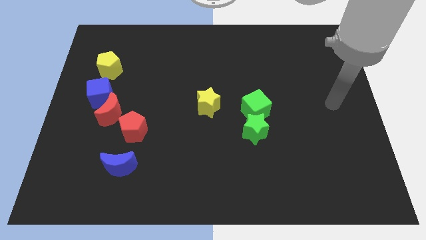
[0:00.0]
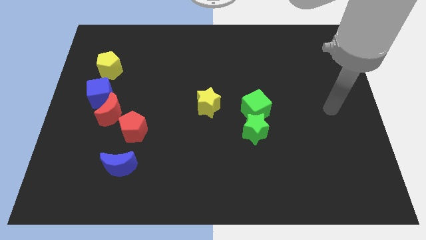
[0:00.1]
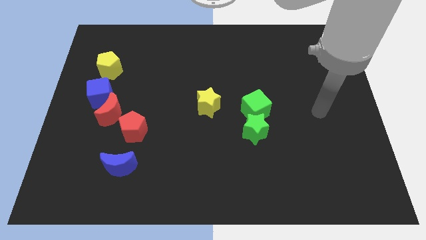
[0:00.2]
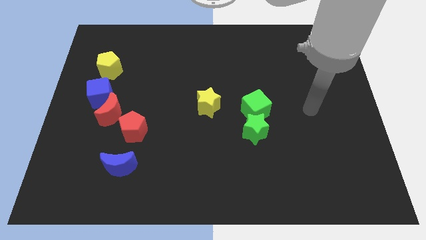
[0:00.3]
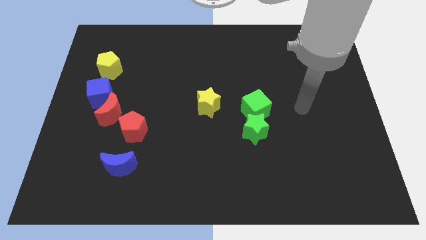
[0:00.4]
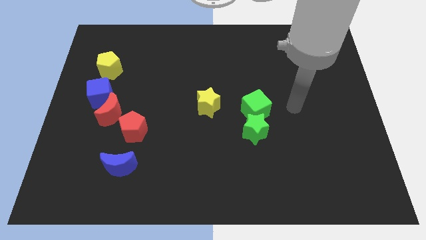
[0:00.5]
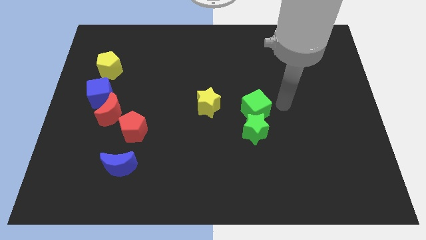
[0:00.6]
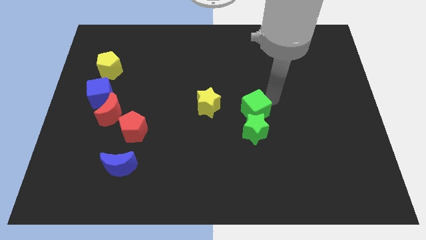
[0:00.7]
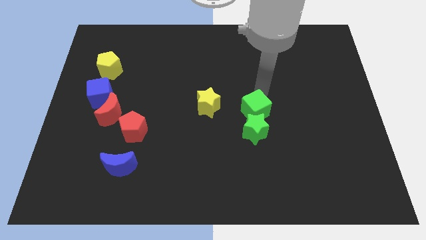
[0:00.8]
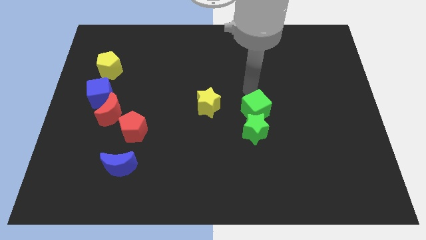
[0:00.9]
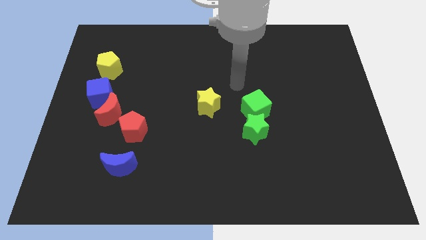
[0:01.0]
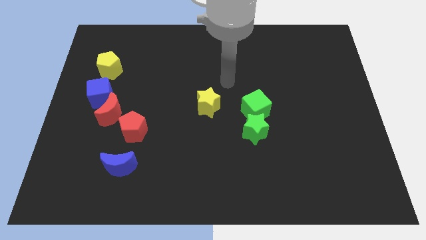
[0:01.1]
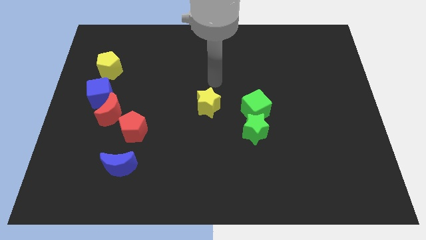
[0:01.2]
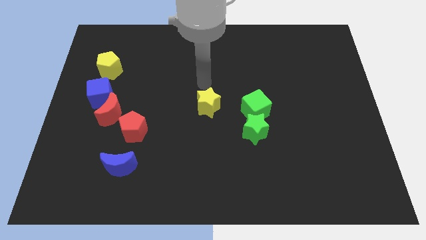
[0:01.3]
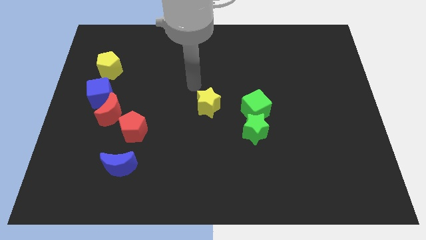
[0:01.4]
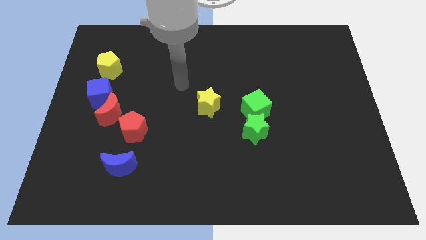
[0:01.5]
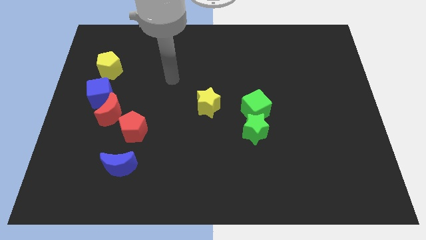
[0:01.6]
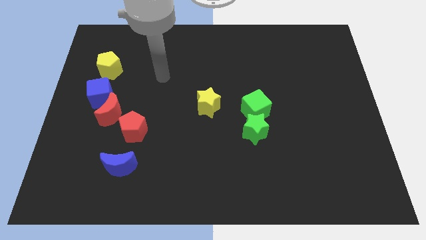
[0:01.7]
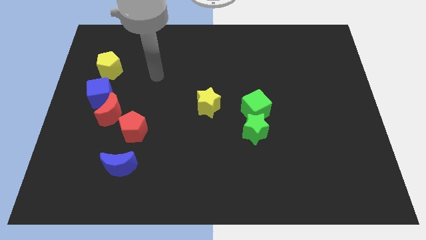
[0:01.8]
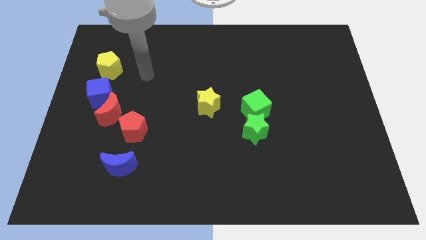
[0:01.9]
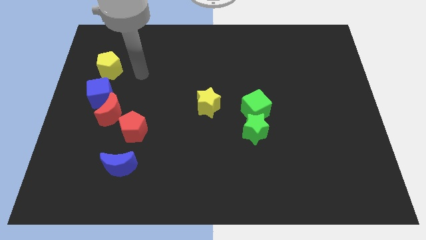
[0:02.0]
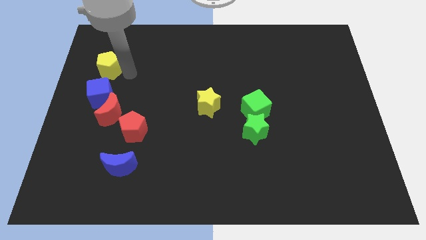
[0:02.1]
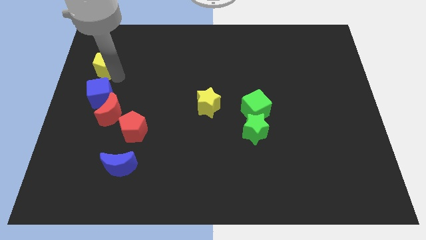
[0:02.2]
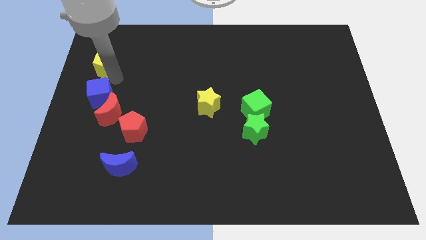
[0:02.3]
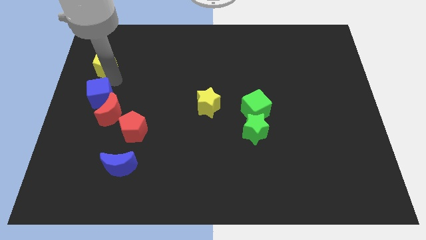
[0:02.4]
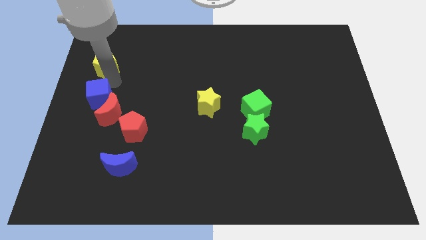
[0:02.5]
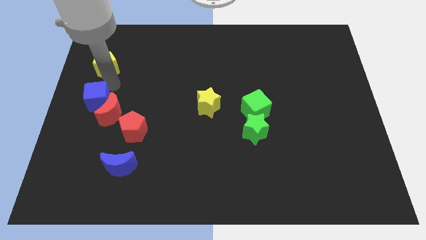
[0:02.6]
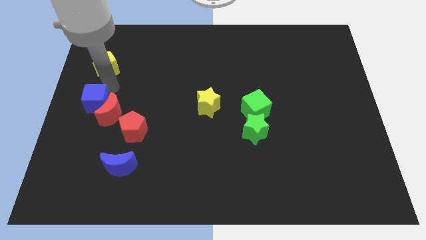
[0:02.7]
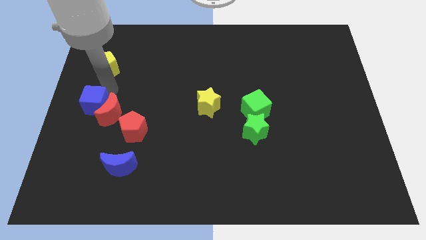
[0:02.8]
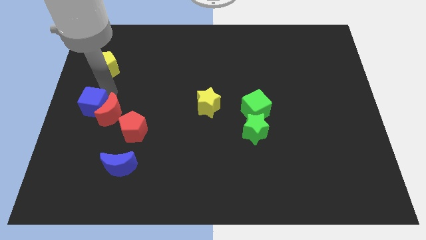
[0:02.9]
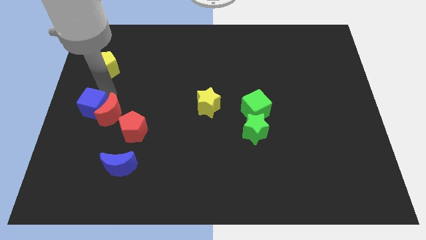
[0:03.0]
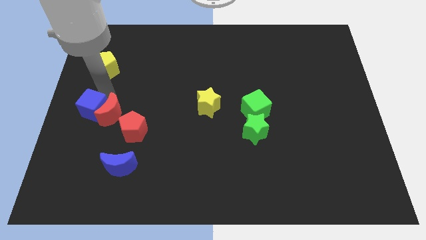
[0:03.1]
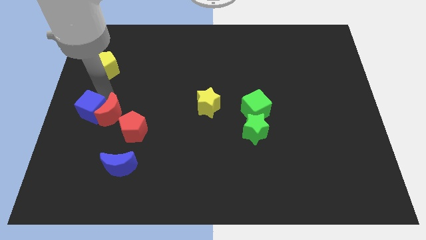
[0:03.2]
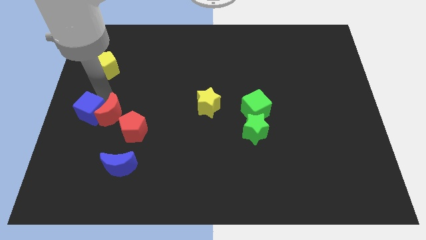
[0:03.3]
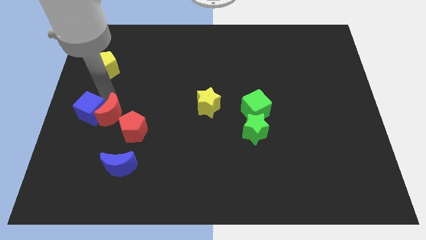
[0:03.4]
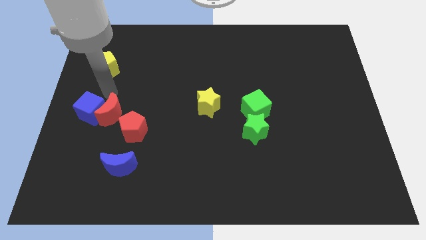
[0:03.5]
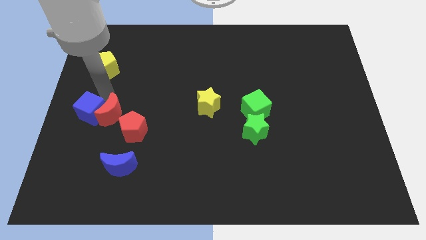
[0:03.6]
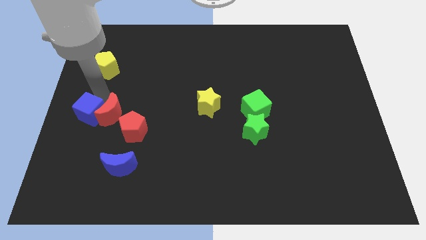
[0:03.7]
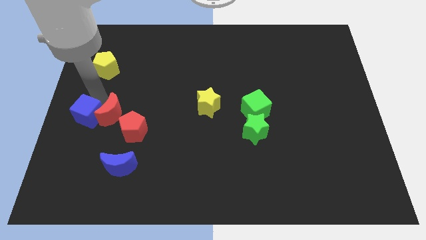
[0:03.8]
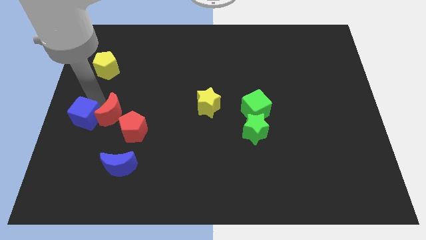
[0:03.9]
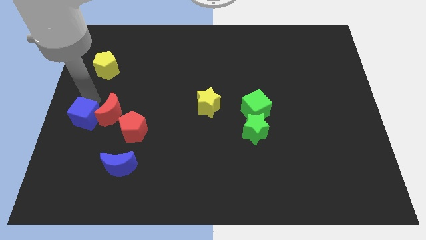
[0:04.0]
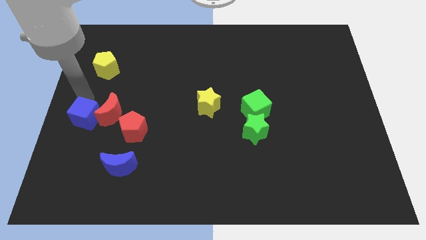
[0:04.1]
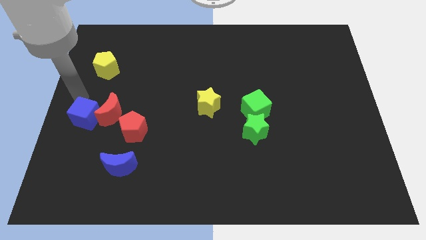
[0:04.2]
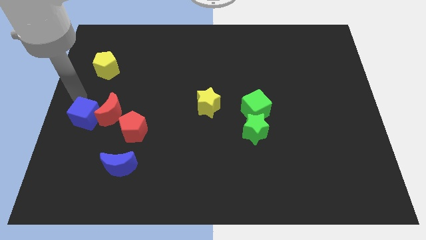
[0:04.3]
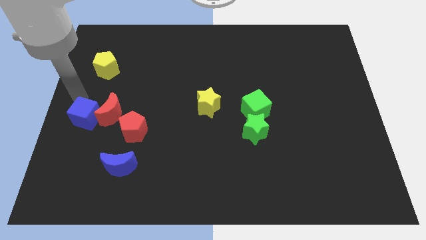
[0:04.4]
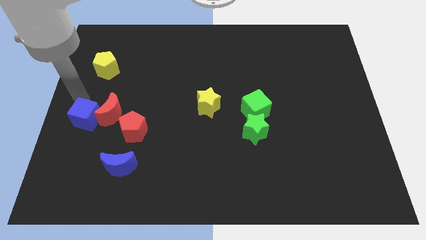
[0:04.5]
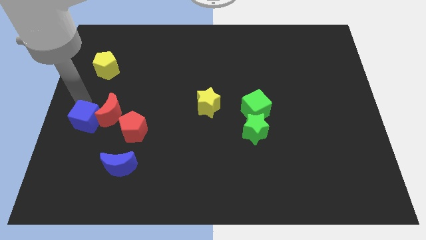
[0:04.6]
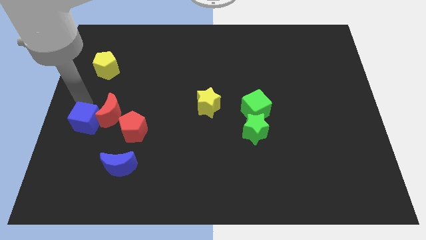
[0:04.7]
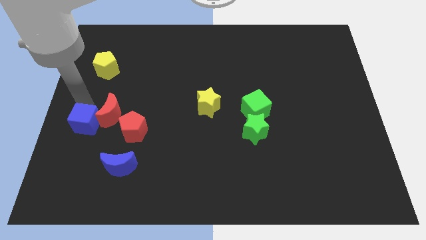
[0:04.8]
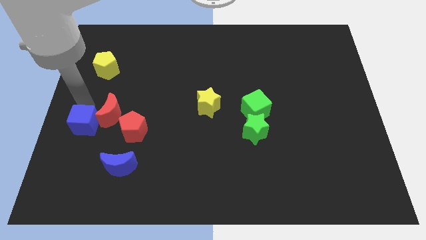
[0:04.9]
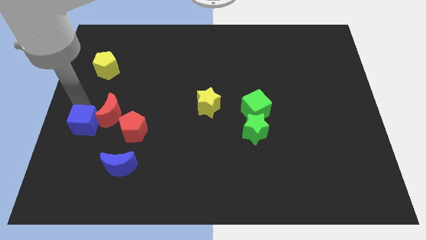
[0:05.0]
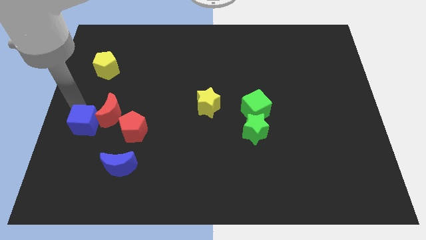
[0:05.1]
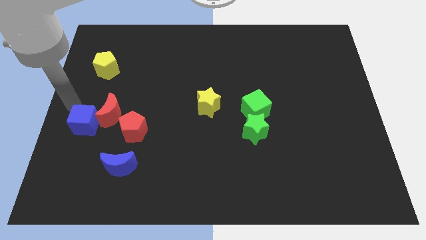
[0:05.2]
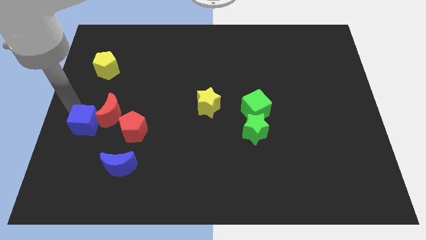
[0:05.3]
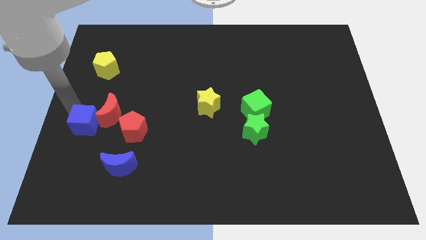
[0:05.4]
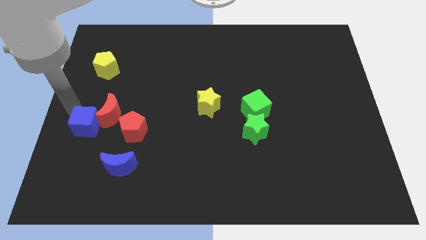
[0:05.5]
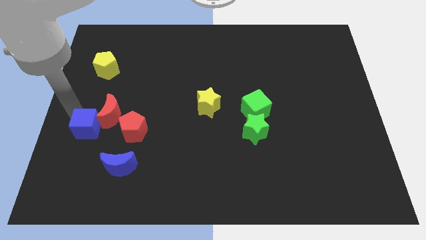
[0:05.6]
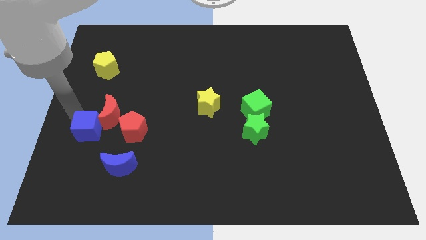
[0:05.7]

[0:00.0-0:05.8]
push the blue cube to the top left side of the blue moon

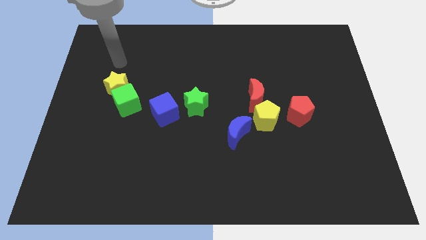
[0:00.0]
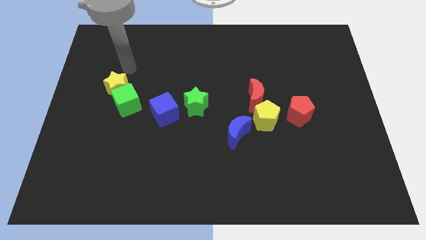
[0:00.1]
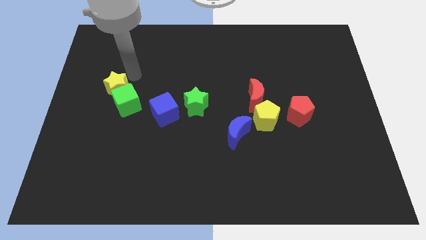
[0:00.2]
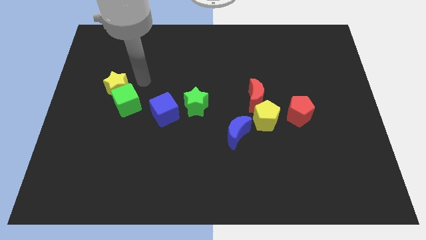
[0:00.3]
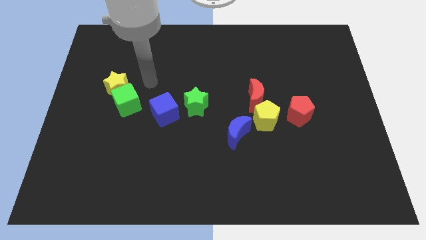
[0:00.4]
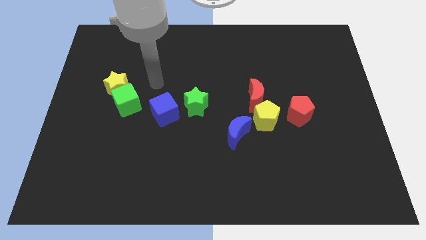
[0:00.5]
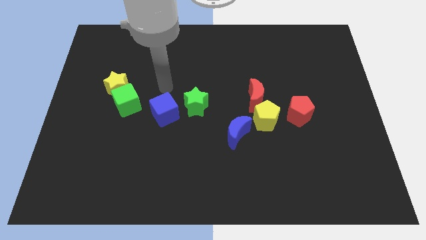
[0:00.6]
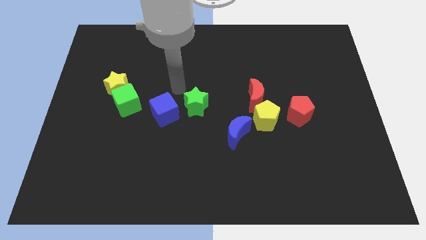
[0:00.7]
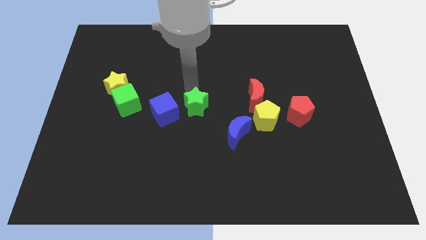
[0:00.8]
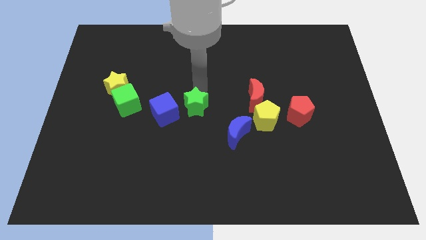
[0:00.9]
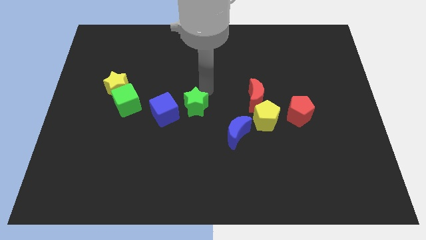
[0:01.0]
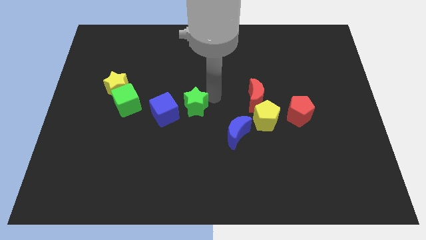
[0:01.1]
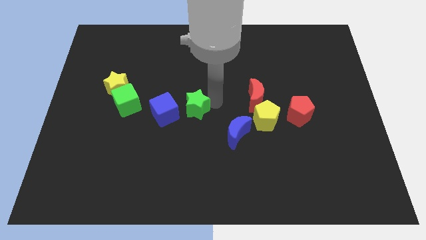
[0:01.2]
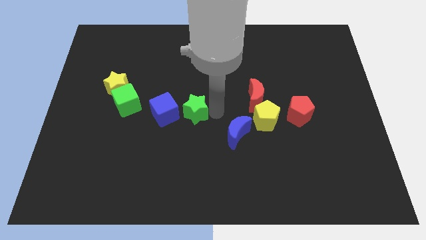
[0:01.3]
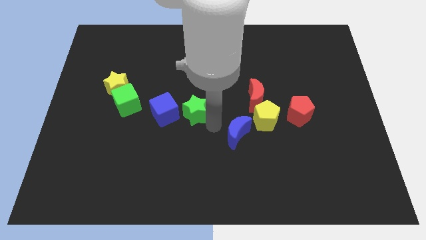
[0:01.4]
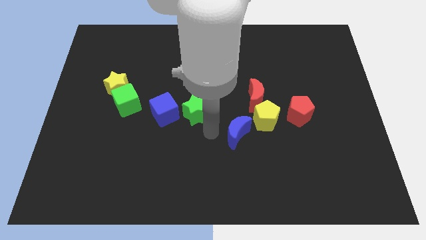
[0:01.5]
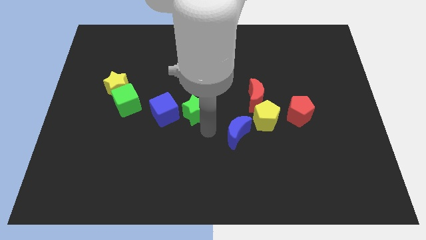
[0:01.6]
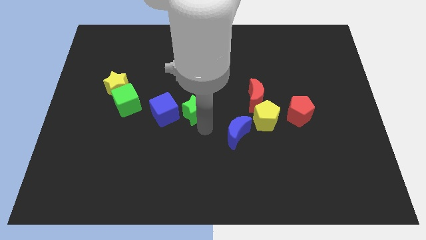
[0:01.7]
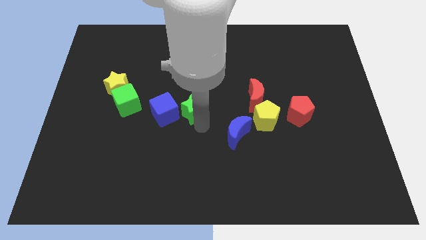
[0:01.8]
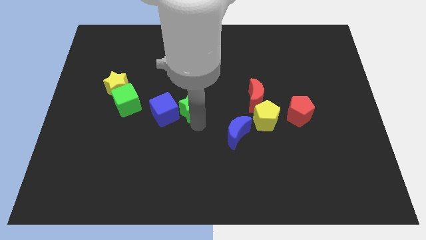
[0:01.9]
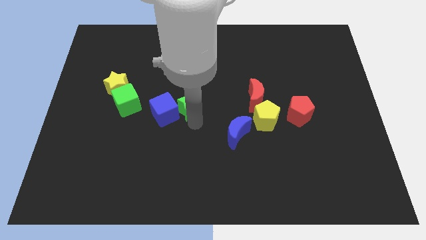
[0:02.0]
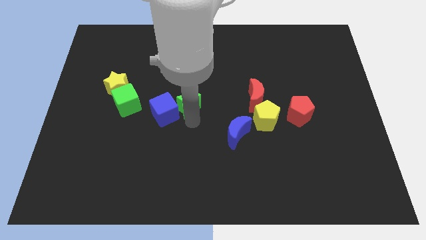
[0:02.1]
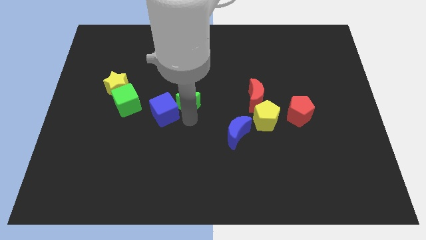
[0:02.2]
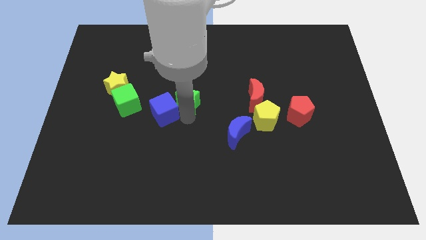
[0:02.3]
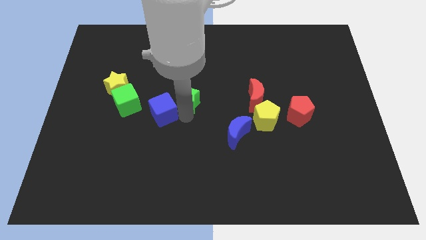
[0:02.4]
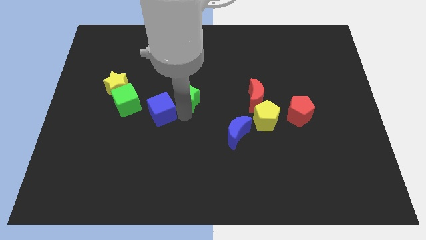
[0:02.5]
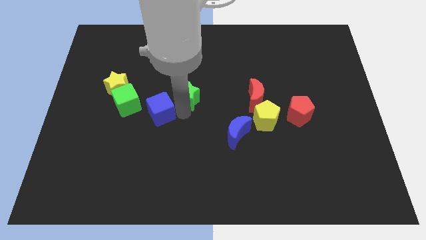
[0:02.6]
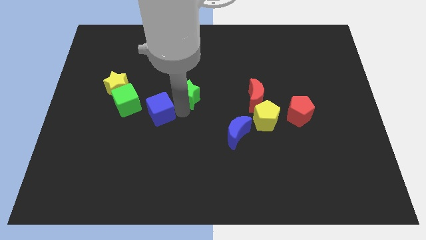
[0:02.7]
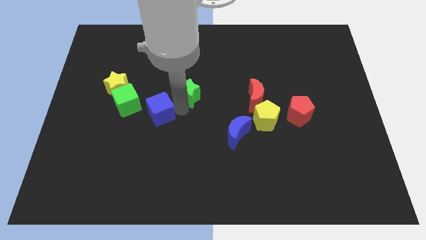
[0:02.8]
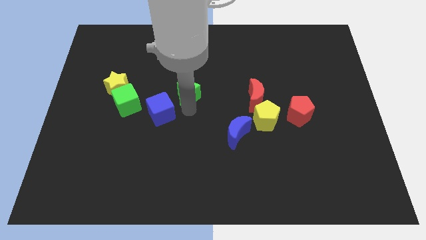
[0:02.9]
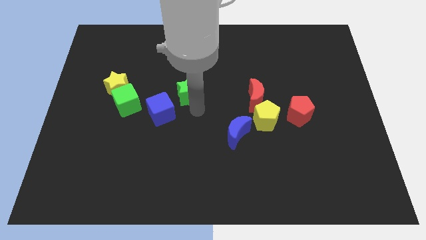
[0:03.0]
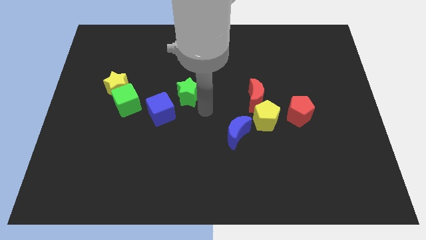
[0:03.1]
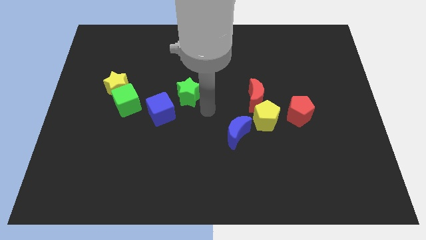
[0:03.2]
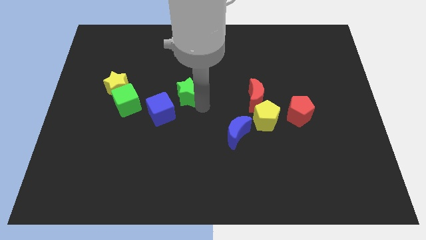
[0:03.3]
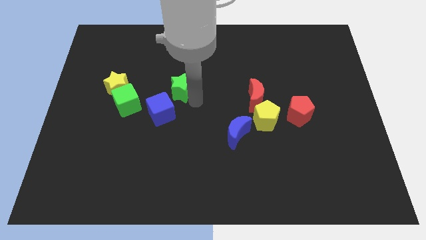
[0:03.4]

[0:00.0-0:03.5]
slide the green star to the top side of the blue cube
